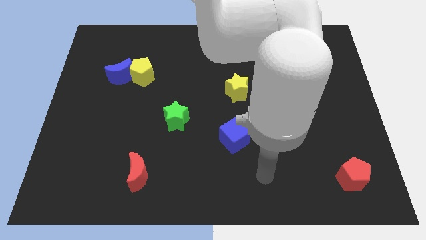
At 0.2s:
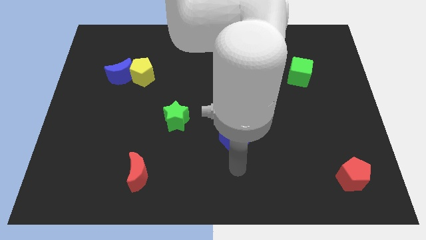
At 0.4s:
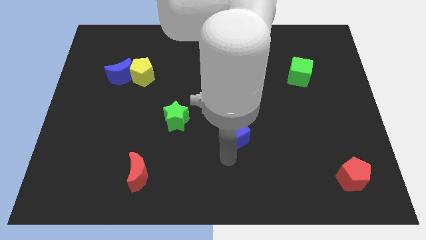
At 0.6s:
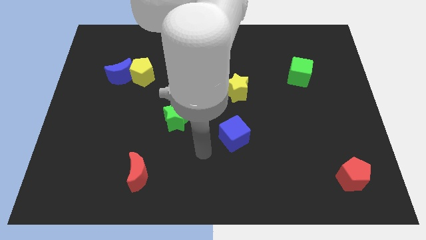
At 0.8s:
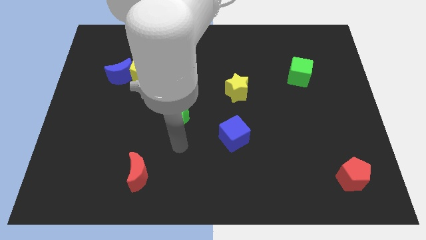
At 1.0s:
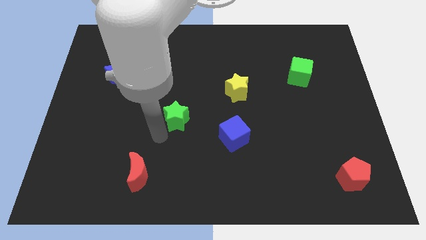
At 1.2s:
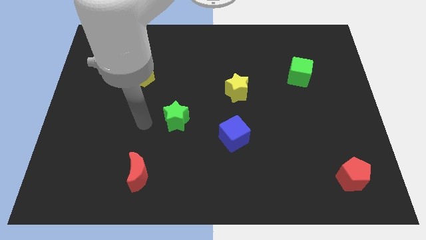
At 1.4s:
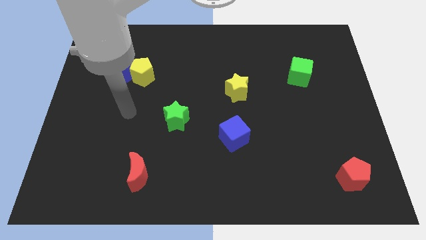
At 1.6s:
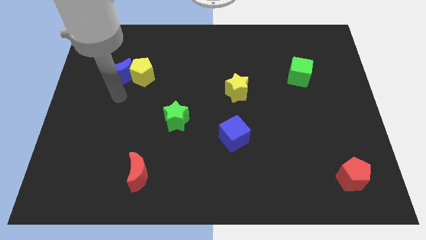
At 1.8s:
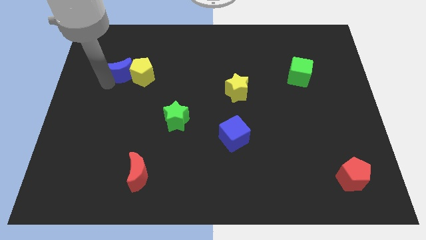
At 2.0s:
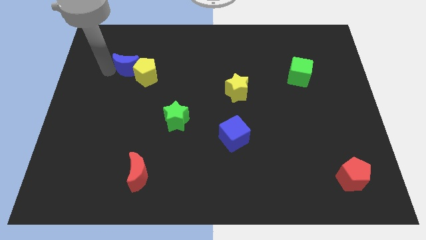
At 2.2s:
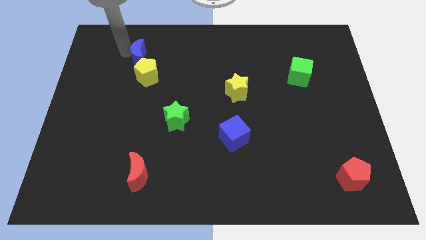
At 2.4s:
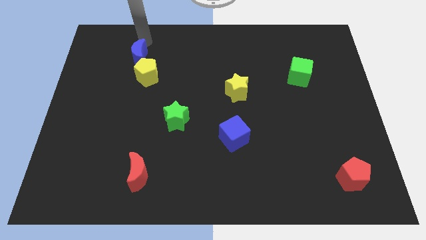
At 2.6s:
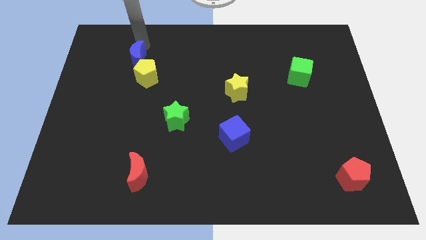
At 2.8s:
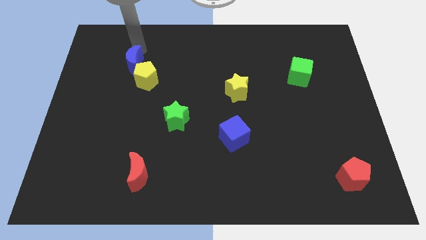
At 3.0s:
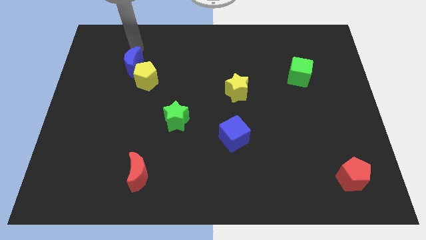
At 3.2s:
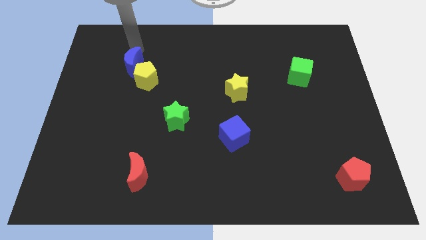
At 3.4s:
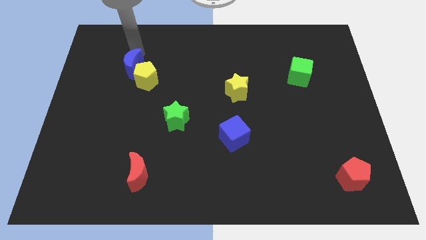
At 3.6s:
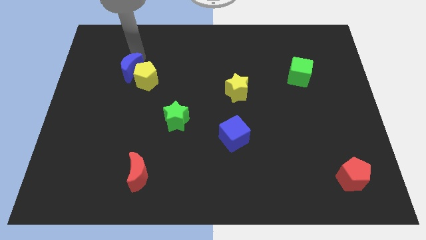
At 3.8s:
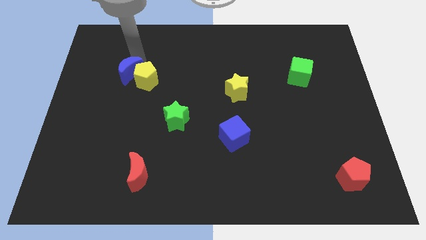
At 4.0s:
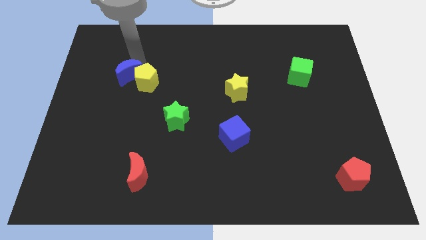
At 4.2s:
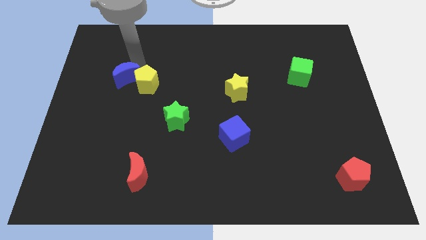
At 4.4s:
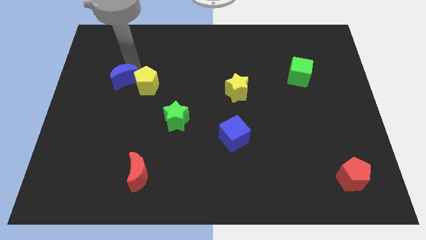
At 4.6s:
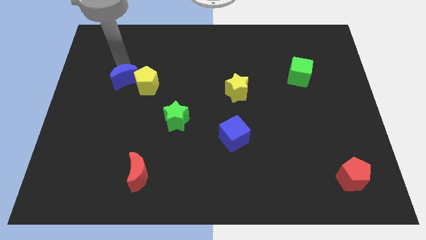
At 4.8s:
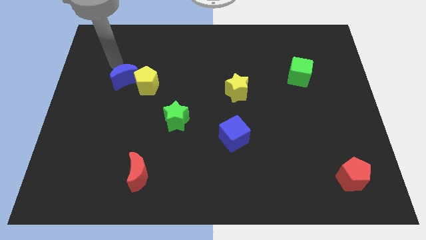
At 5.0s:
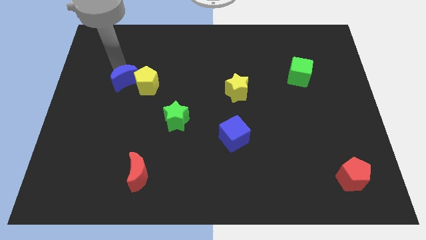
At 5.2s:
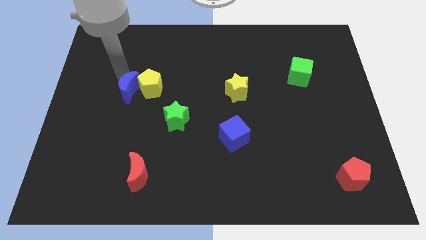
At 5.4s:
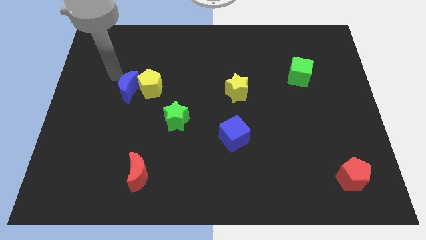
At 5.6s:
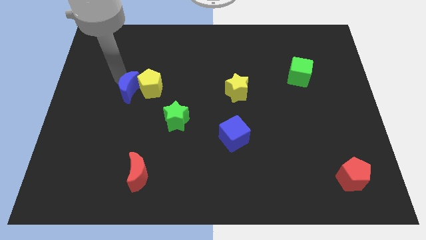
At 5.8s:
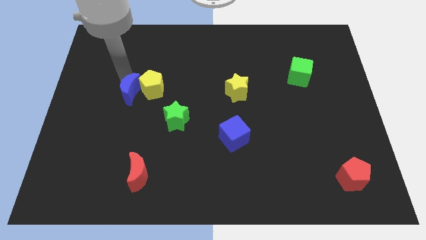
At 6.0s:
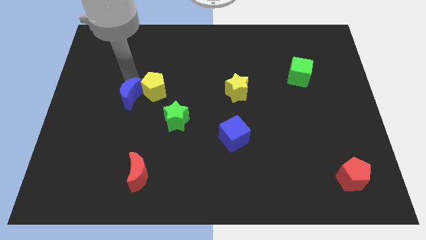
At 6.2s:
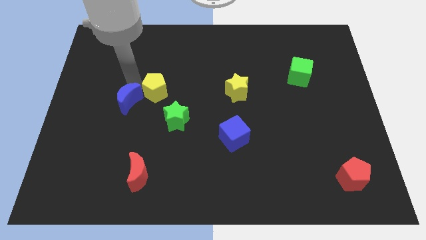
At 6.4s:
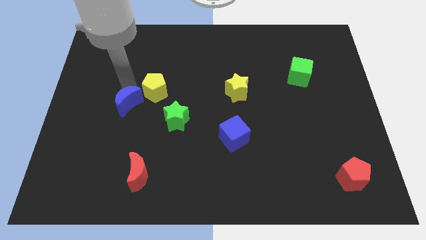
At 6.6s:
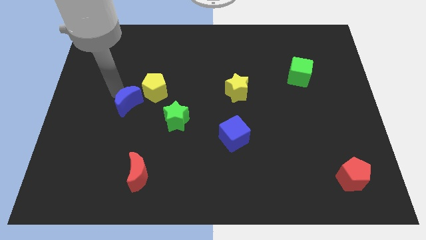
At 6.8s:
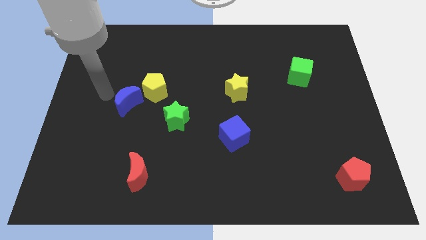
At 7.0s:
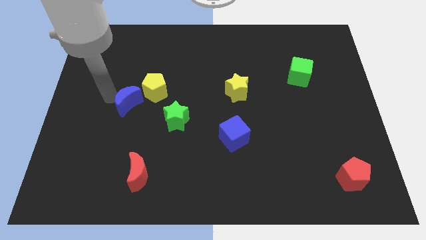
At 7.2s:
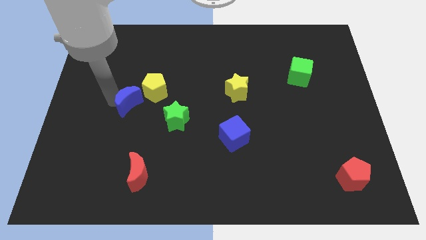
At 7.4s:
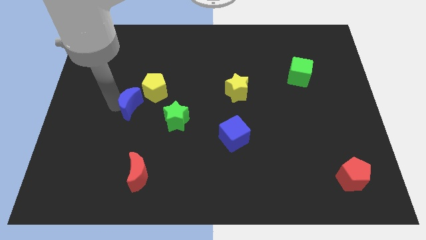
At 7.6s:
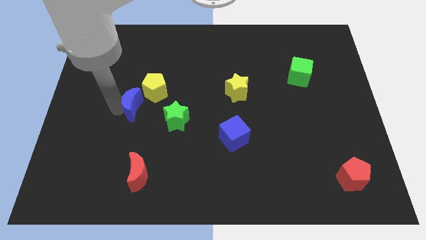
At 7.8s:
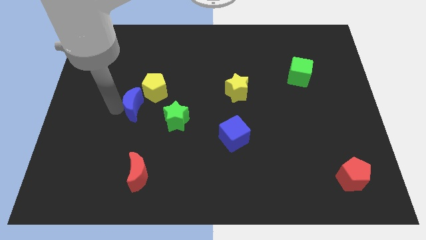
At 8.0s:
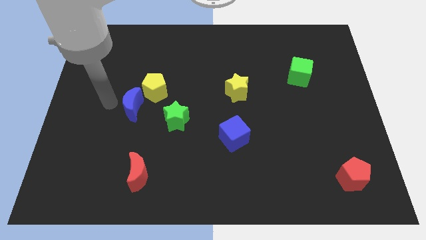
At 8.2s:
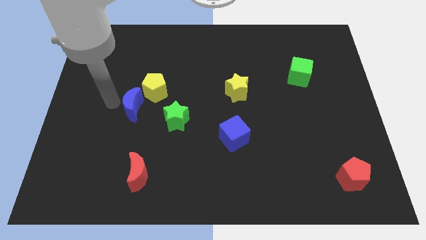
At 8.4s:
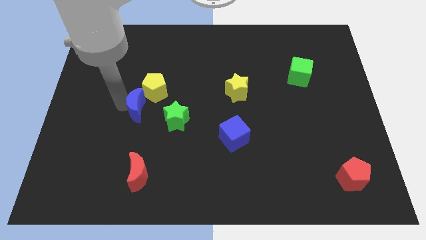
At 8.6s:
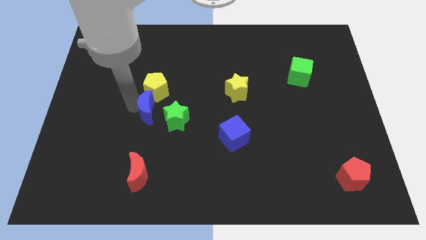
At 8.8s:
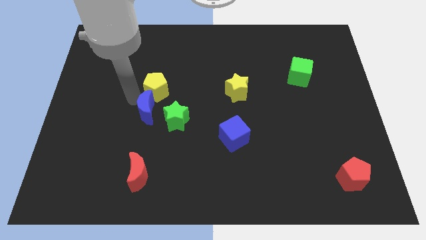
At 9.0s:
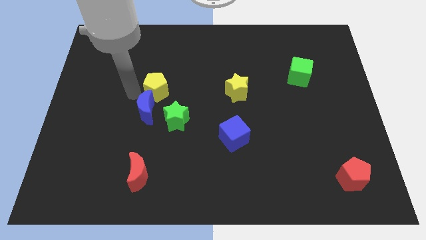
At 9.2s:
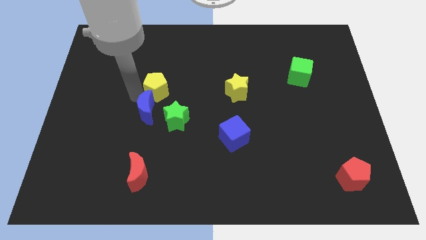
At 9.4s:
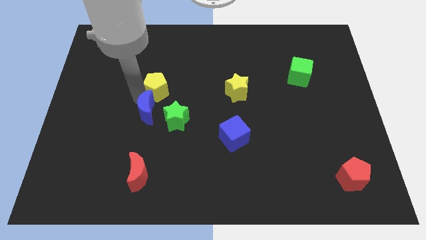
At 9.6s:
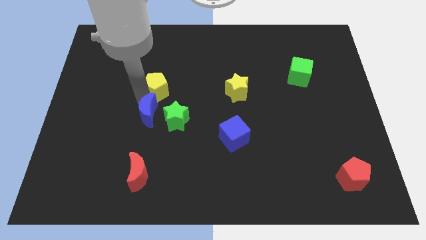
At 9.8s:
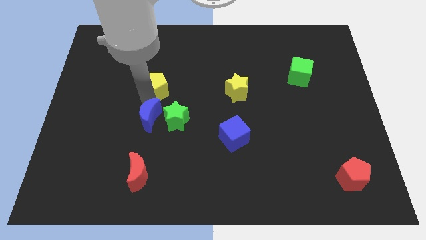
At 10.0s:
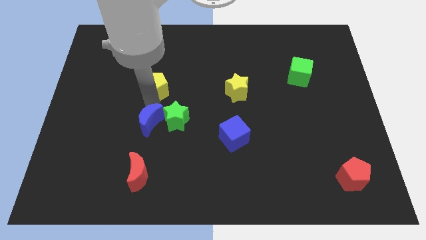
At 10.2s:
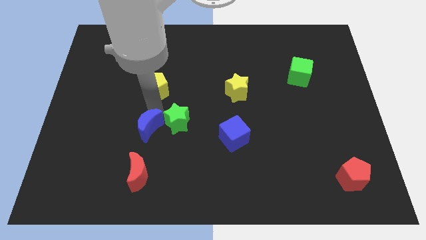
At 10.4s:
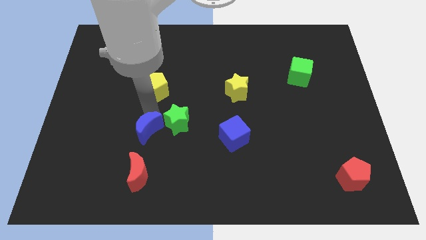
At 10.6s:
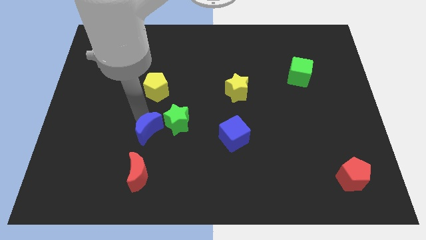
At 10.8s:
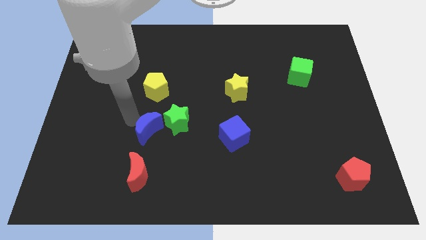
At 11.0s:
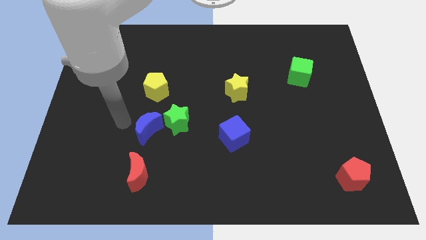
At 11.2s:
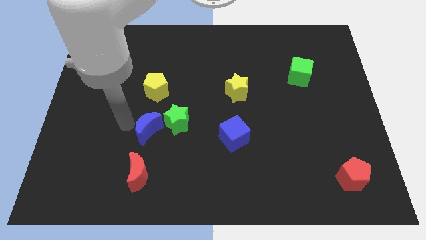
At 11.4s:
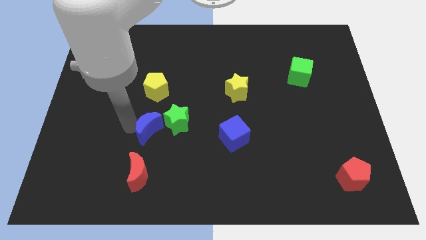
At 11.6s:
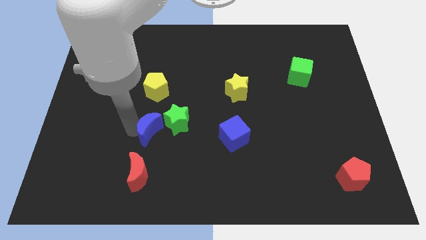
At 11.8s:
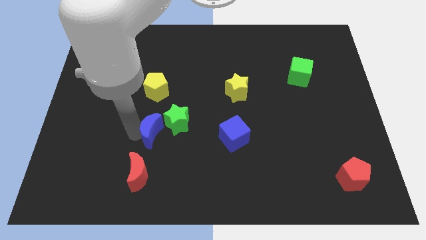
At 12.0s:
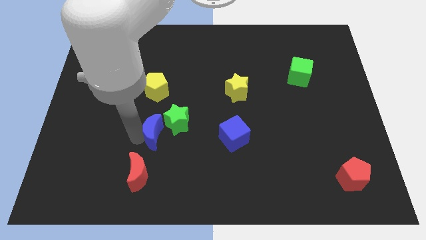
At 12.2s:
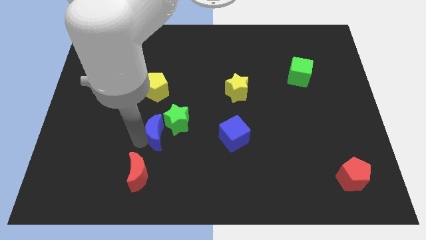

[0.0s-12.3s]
slide the blue moon to the top right of the red moon

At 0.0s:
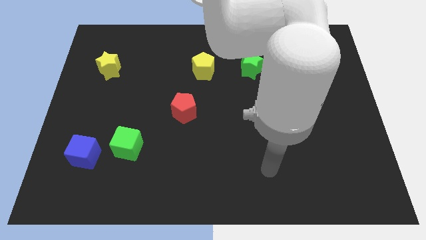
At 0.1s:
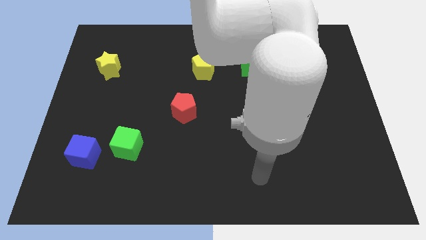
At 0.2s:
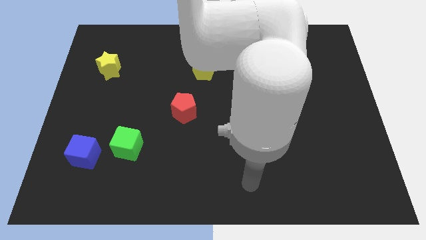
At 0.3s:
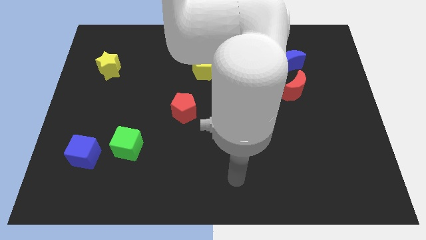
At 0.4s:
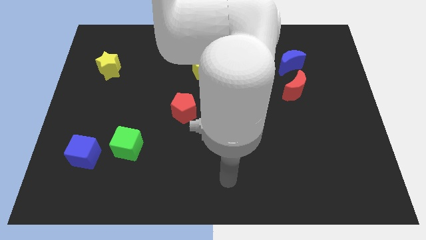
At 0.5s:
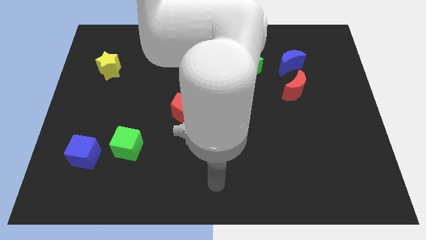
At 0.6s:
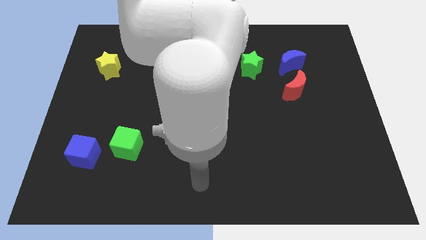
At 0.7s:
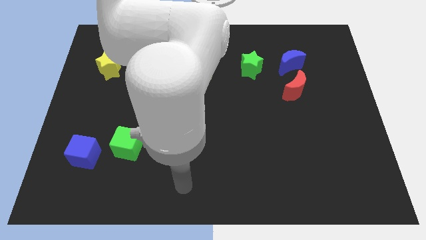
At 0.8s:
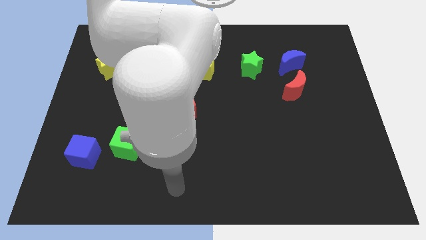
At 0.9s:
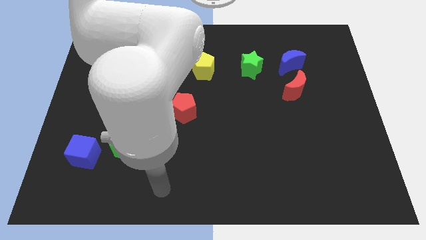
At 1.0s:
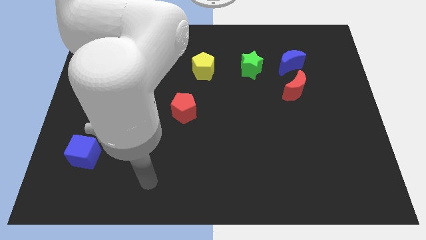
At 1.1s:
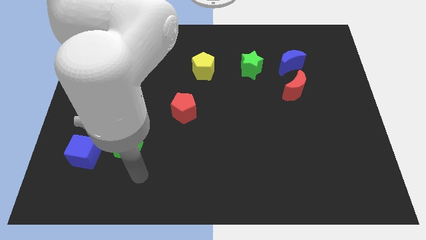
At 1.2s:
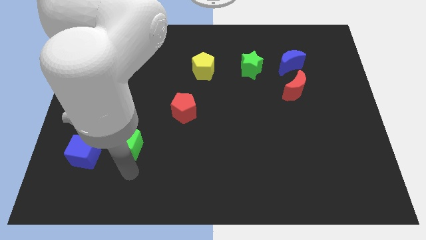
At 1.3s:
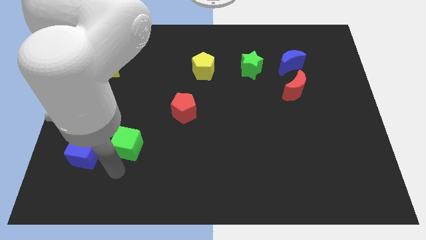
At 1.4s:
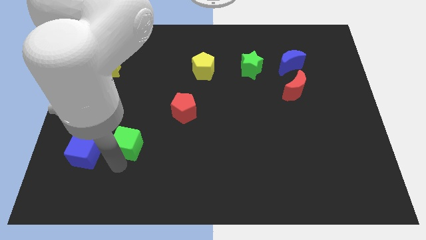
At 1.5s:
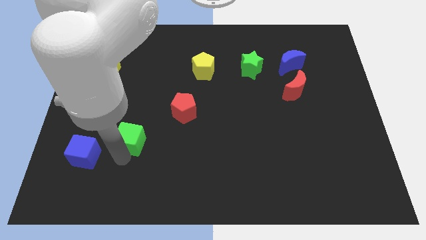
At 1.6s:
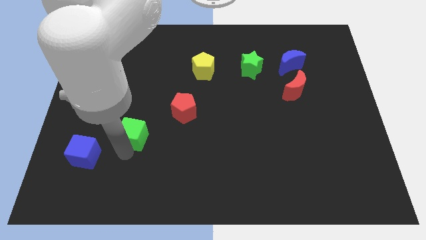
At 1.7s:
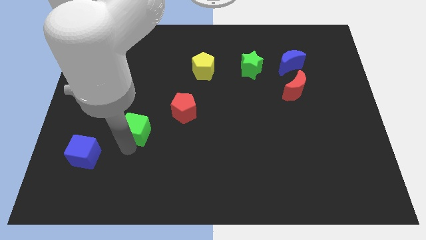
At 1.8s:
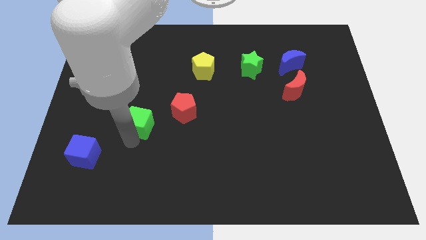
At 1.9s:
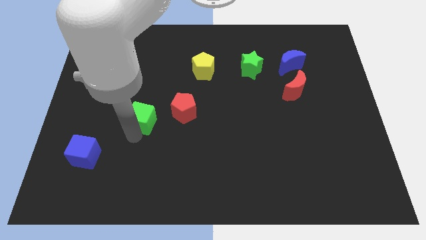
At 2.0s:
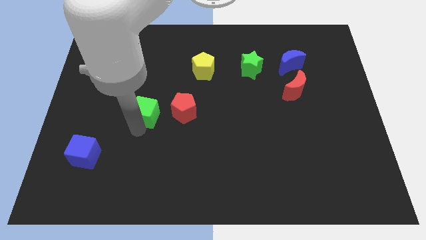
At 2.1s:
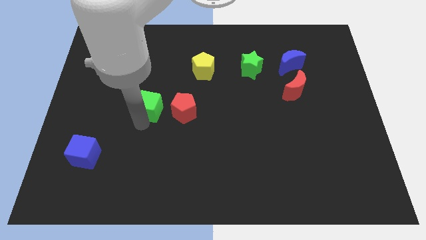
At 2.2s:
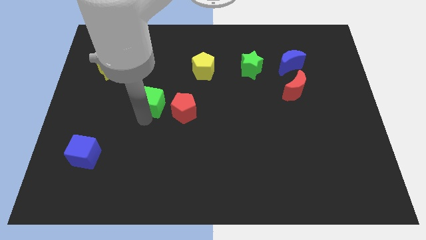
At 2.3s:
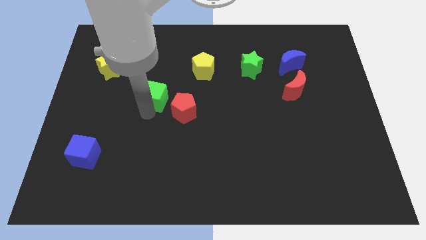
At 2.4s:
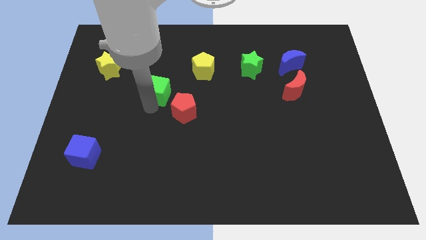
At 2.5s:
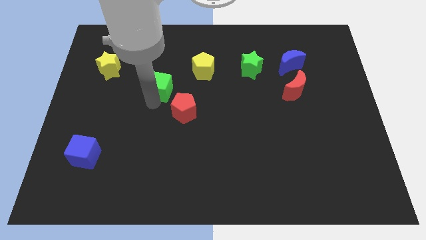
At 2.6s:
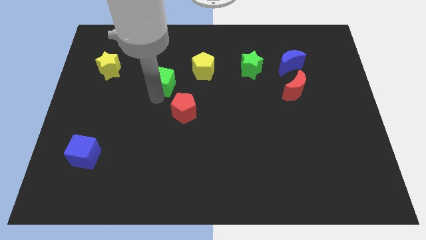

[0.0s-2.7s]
put the green cube left of the yellow pentagon
